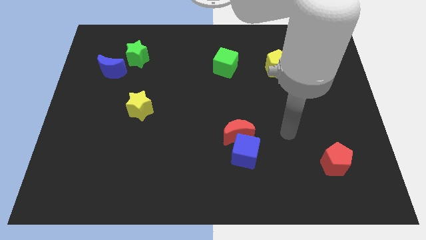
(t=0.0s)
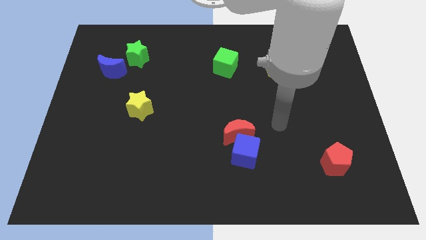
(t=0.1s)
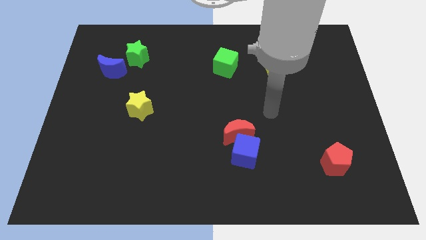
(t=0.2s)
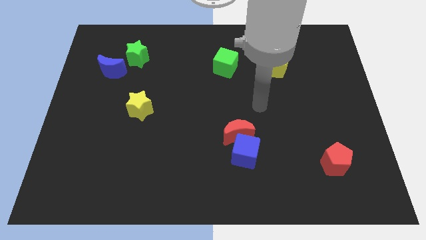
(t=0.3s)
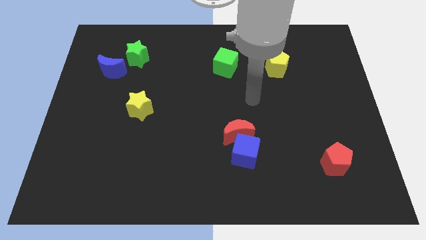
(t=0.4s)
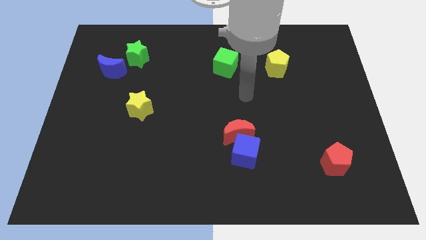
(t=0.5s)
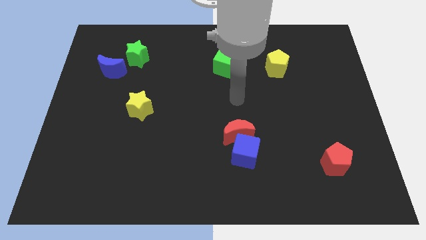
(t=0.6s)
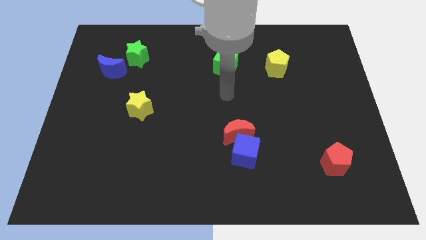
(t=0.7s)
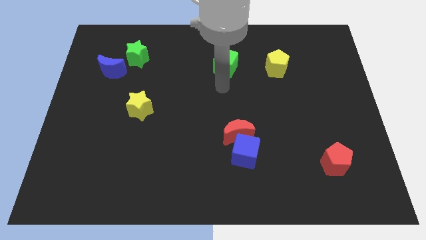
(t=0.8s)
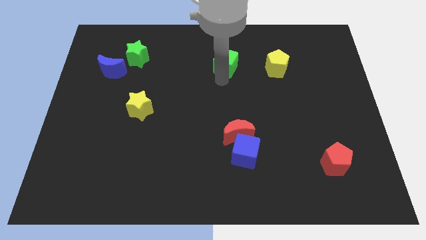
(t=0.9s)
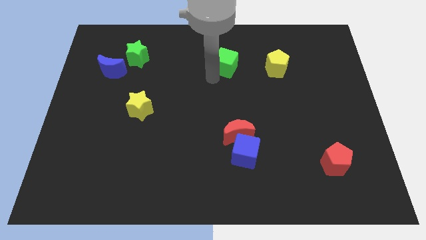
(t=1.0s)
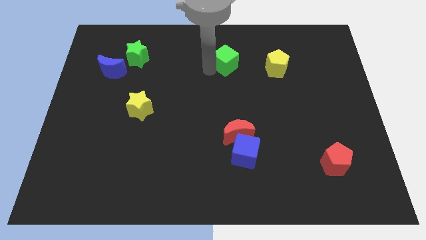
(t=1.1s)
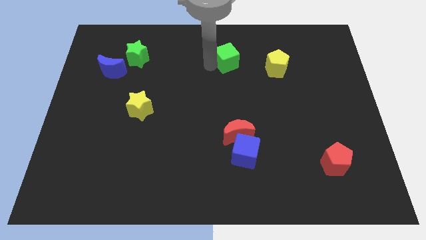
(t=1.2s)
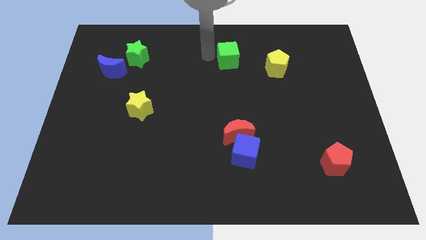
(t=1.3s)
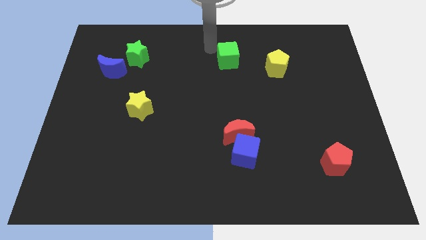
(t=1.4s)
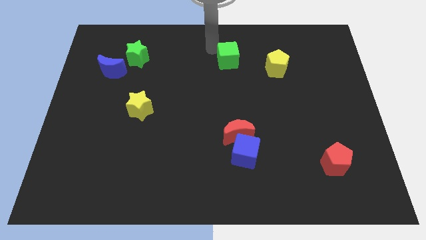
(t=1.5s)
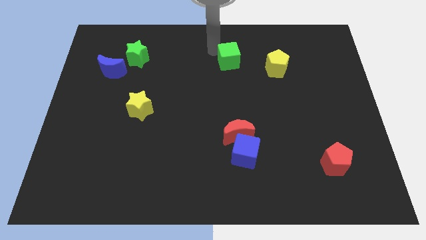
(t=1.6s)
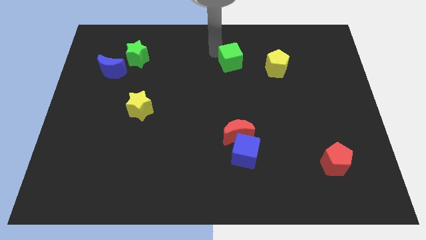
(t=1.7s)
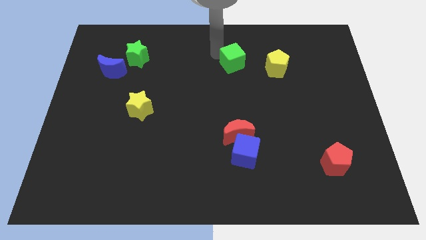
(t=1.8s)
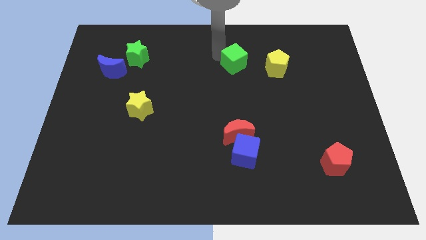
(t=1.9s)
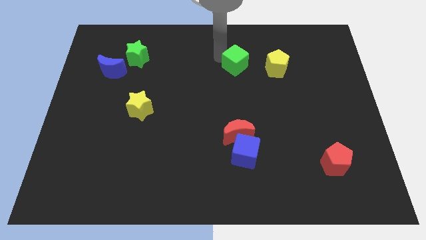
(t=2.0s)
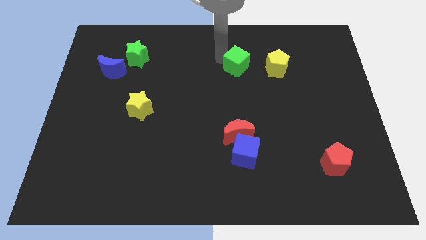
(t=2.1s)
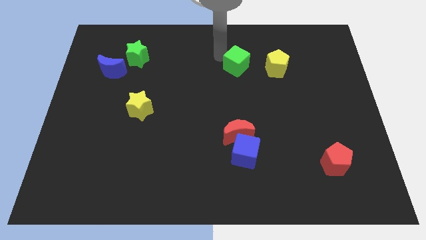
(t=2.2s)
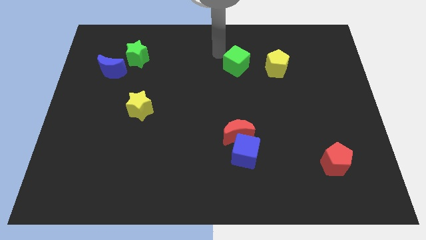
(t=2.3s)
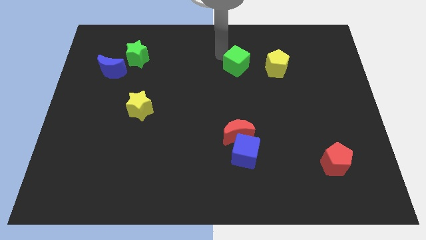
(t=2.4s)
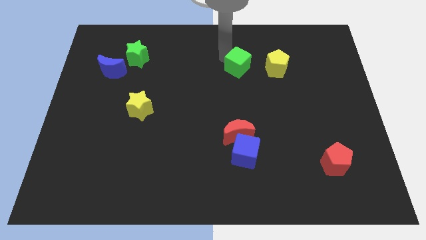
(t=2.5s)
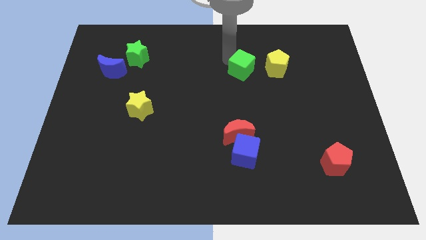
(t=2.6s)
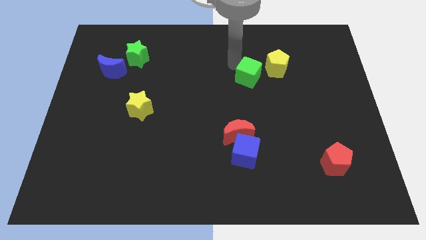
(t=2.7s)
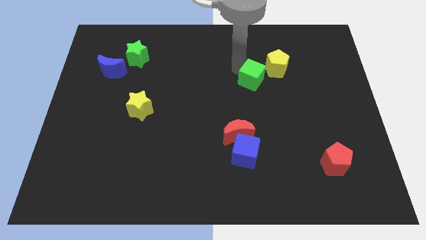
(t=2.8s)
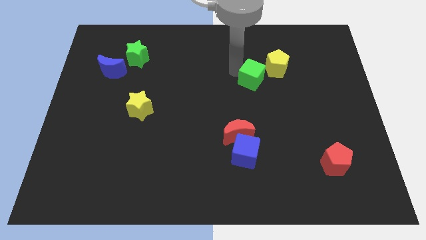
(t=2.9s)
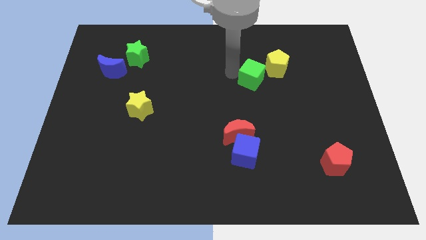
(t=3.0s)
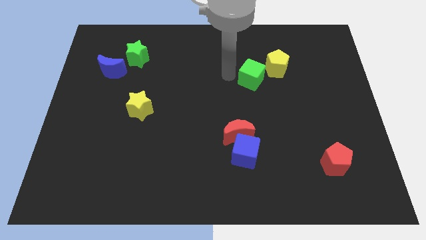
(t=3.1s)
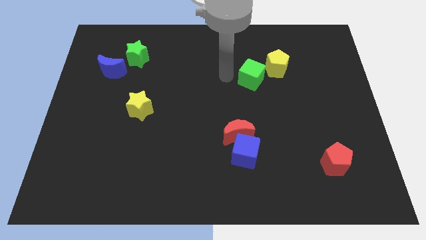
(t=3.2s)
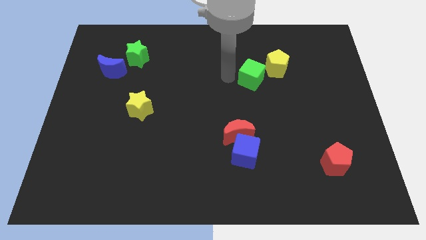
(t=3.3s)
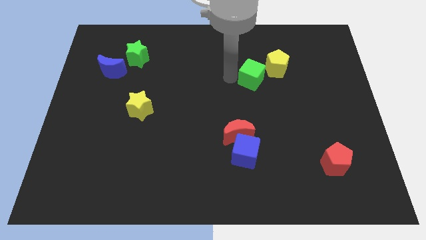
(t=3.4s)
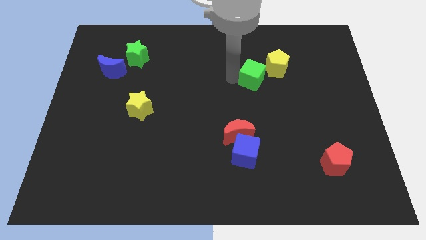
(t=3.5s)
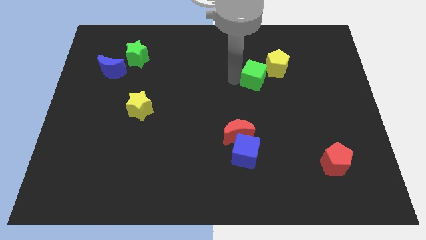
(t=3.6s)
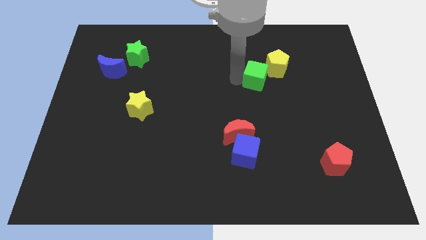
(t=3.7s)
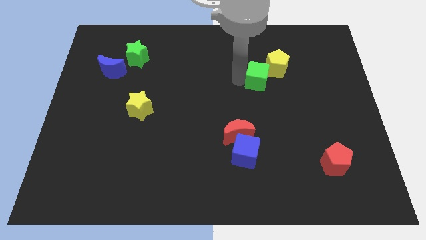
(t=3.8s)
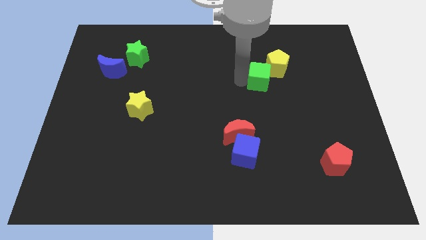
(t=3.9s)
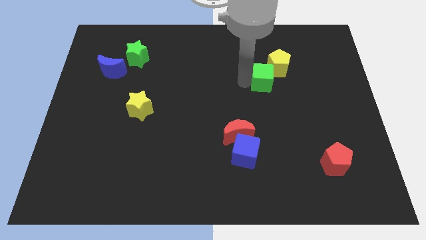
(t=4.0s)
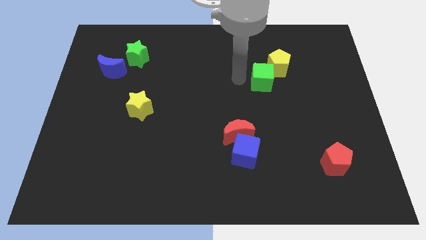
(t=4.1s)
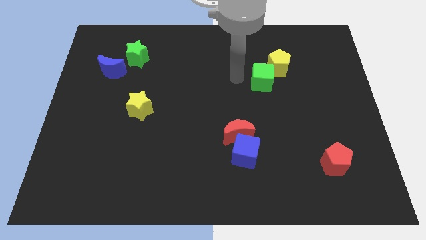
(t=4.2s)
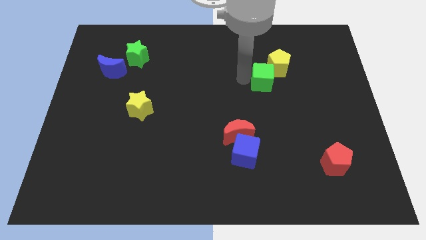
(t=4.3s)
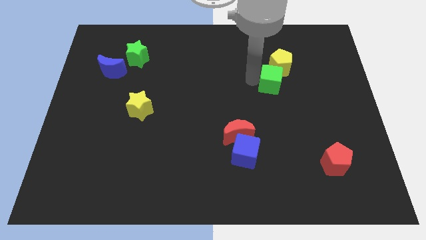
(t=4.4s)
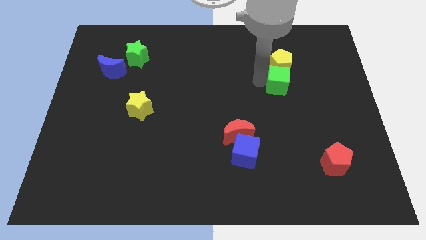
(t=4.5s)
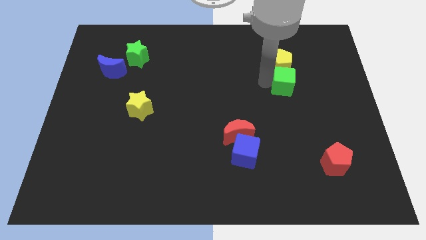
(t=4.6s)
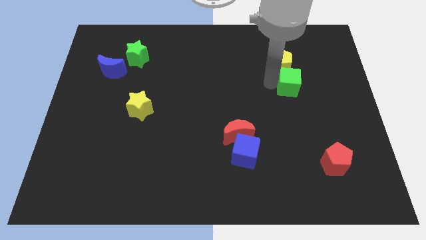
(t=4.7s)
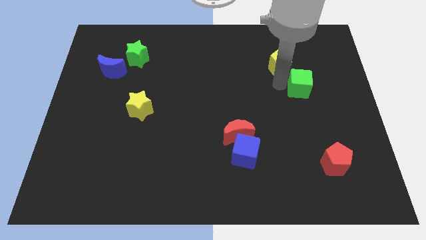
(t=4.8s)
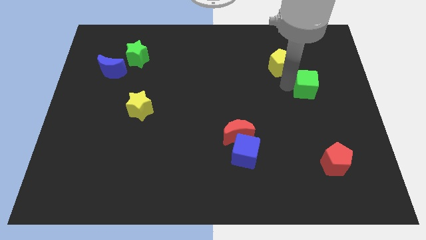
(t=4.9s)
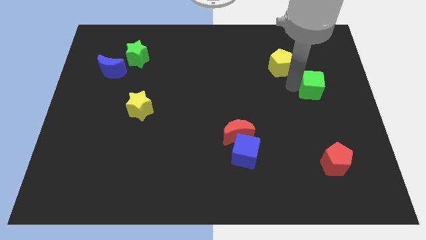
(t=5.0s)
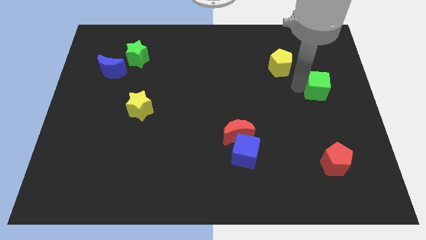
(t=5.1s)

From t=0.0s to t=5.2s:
move the green cube to the right side of the board

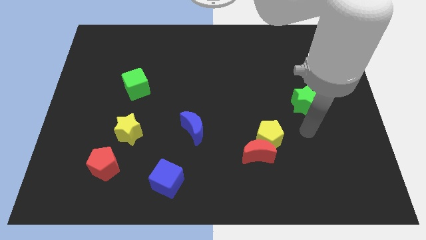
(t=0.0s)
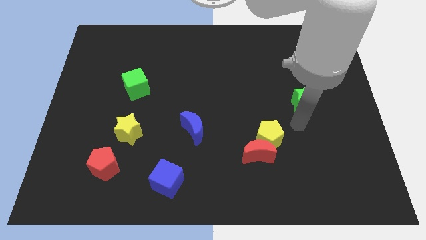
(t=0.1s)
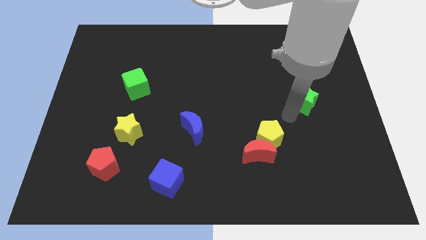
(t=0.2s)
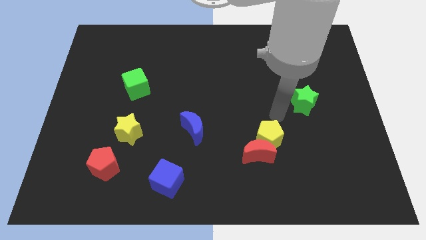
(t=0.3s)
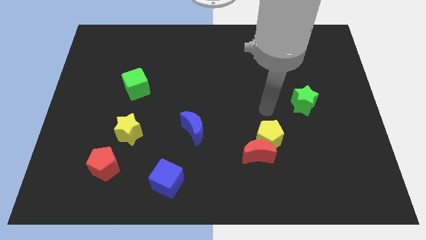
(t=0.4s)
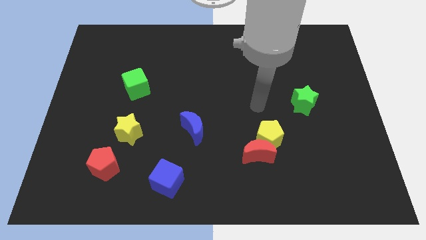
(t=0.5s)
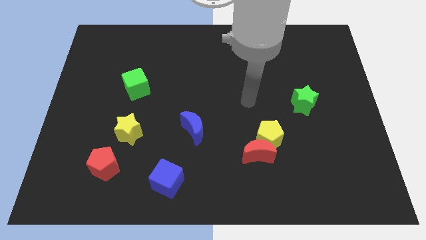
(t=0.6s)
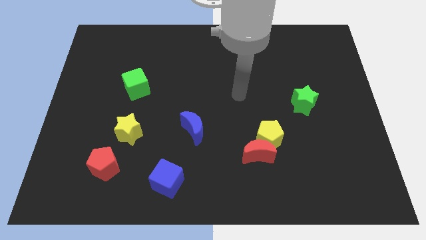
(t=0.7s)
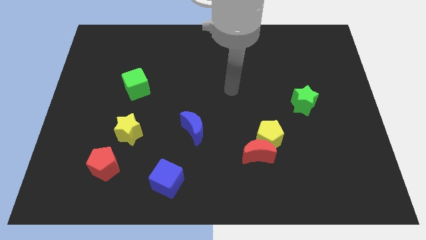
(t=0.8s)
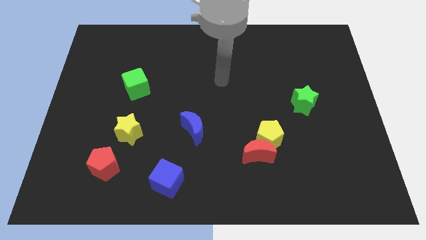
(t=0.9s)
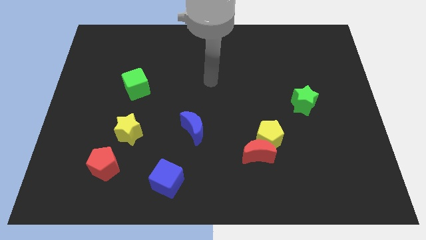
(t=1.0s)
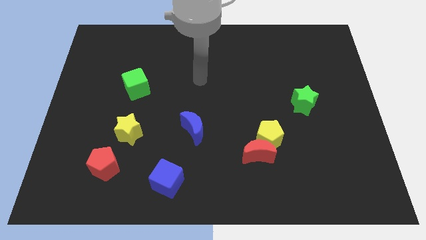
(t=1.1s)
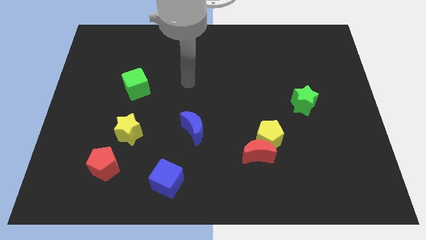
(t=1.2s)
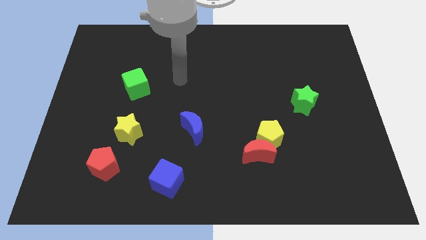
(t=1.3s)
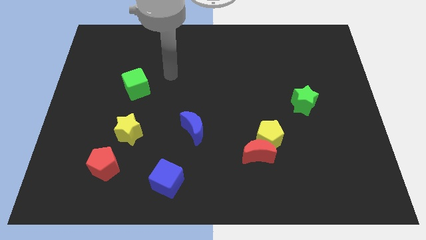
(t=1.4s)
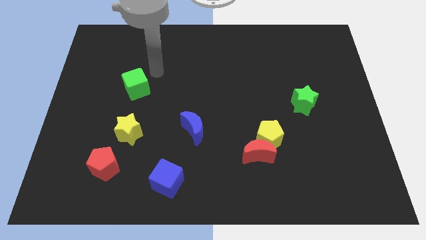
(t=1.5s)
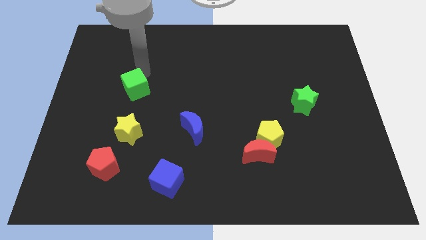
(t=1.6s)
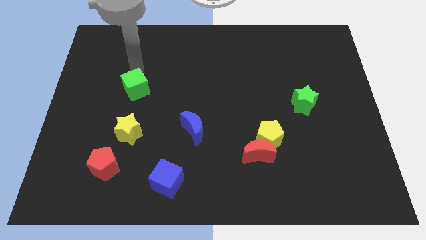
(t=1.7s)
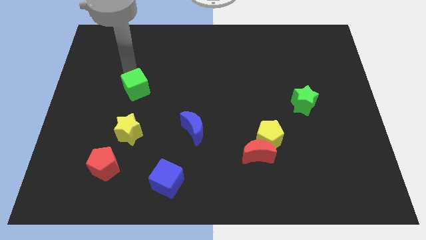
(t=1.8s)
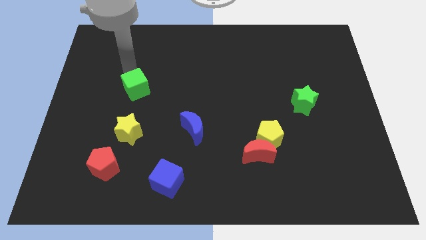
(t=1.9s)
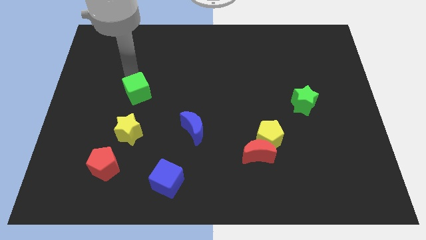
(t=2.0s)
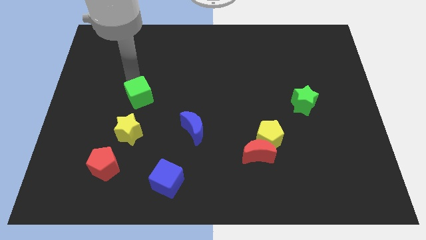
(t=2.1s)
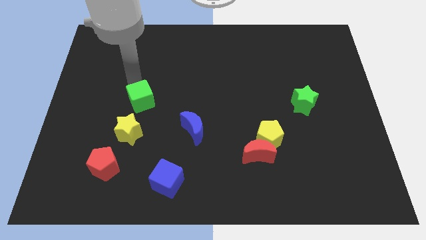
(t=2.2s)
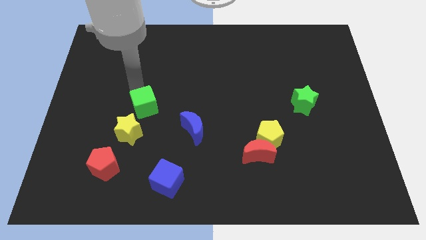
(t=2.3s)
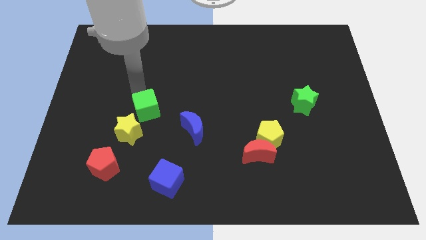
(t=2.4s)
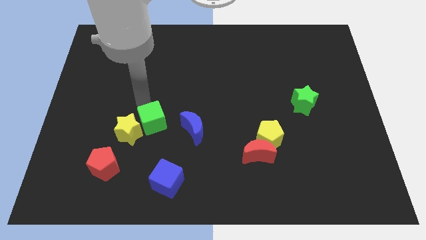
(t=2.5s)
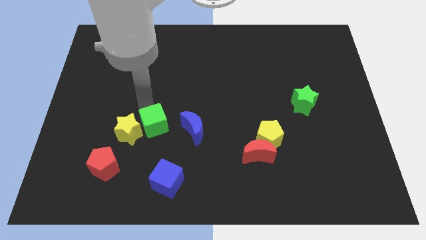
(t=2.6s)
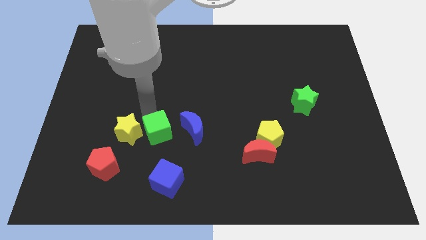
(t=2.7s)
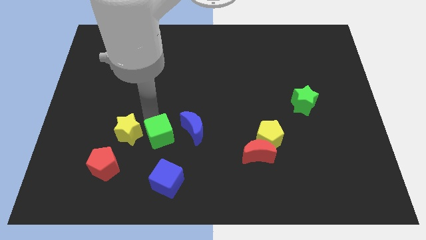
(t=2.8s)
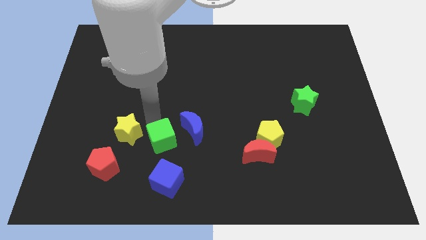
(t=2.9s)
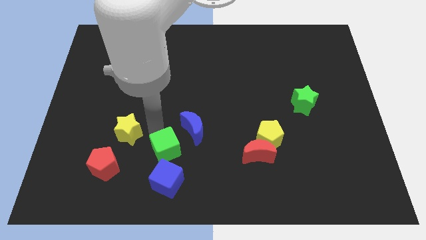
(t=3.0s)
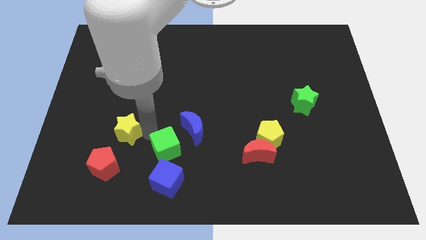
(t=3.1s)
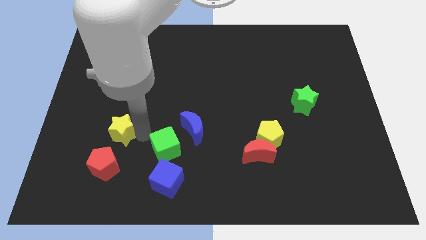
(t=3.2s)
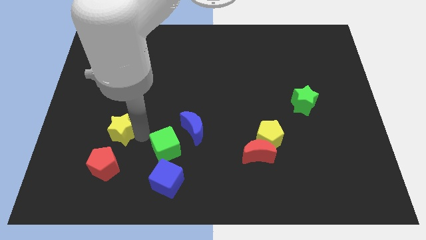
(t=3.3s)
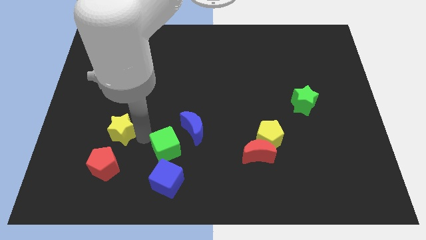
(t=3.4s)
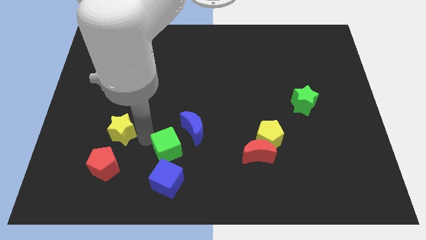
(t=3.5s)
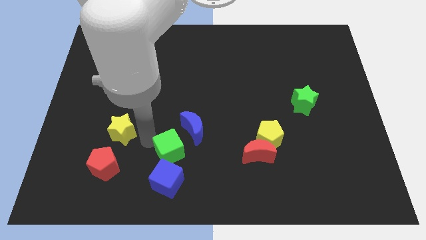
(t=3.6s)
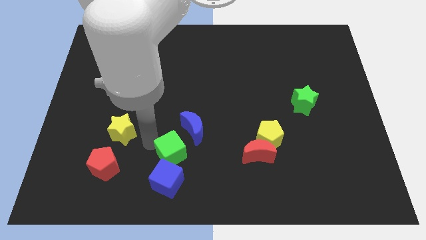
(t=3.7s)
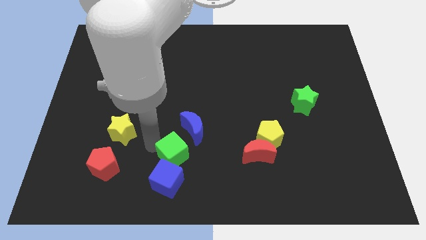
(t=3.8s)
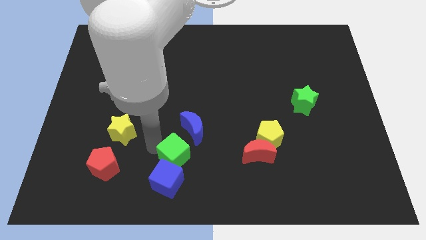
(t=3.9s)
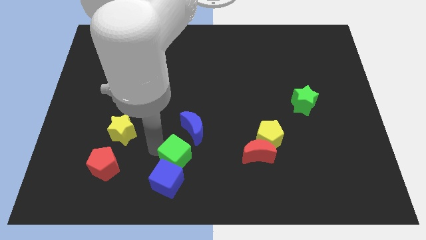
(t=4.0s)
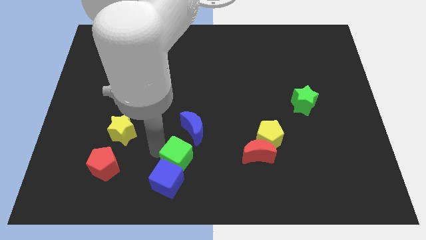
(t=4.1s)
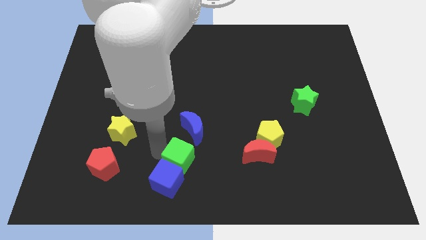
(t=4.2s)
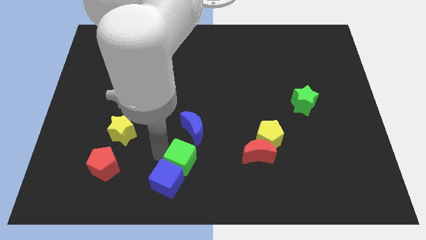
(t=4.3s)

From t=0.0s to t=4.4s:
move the green cube to the bottom side
